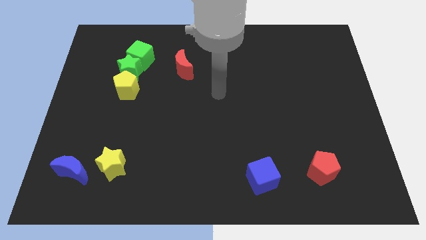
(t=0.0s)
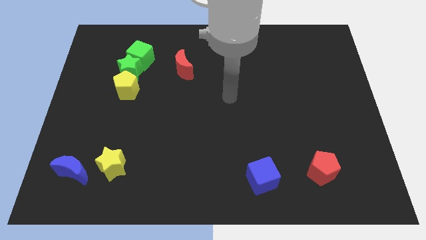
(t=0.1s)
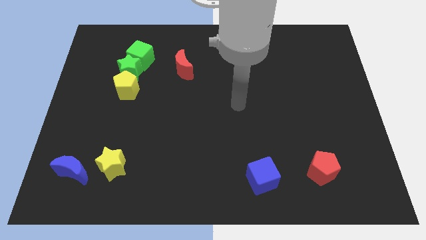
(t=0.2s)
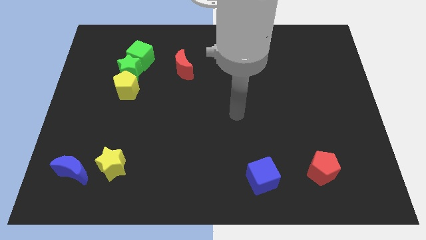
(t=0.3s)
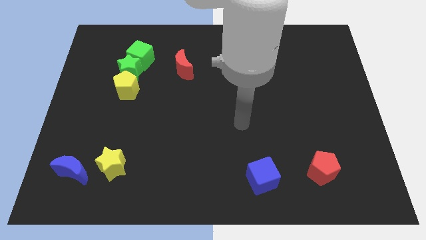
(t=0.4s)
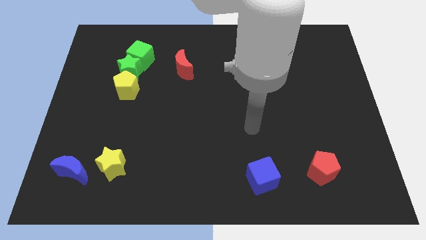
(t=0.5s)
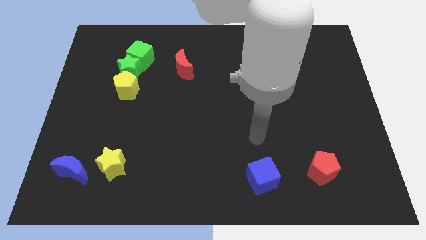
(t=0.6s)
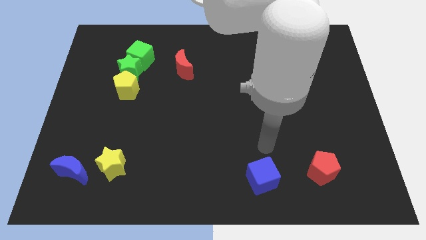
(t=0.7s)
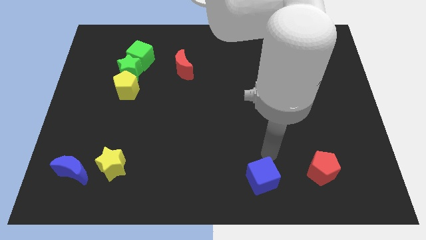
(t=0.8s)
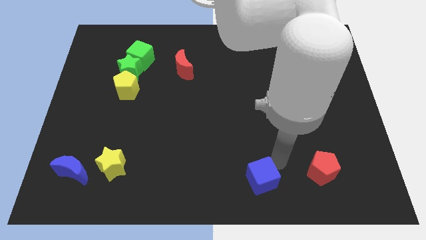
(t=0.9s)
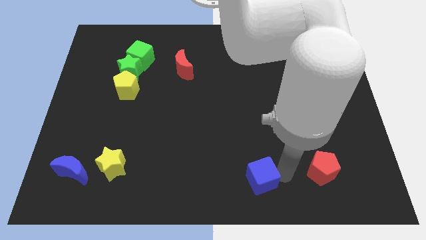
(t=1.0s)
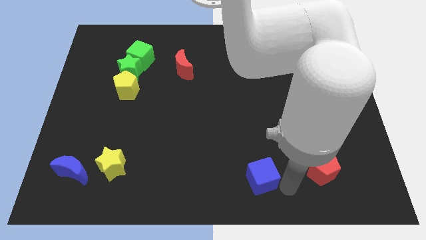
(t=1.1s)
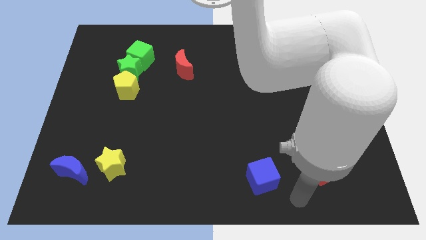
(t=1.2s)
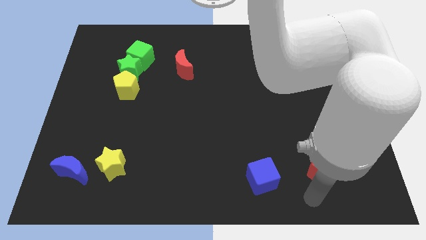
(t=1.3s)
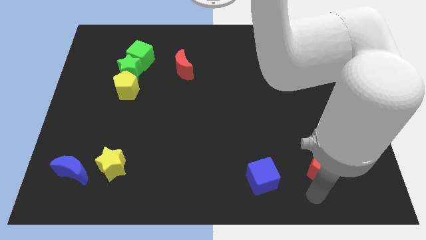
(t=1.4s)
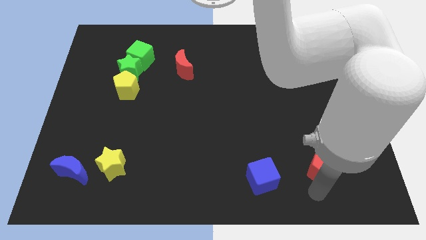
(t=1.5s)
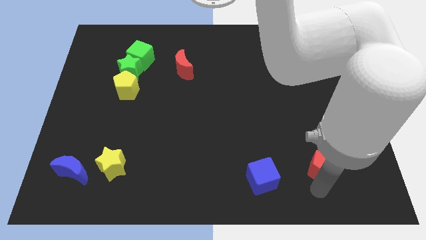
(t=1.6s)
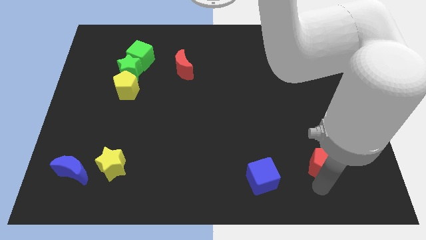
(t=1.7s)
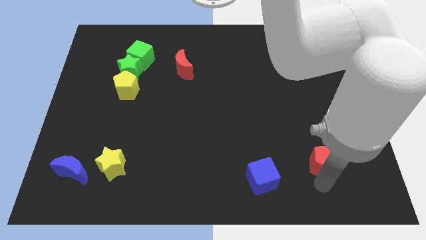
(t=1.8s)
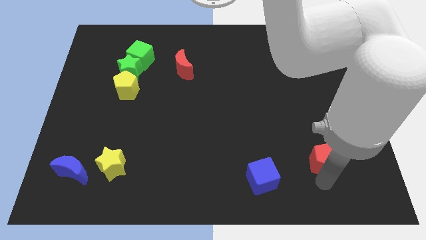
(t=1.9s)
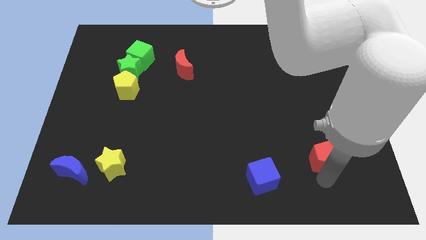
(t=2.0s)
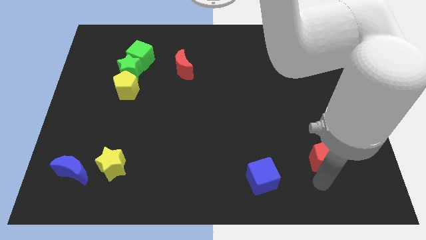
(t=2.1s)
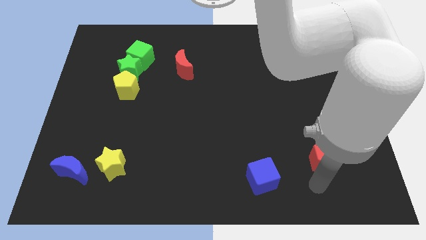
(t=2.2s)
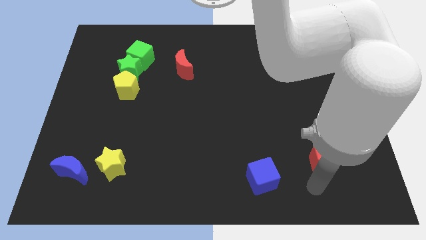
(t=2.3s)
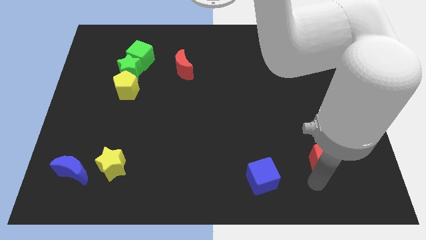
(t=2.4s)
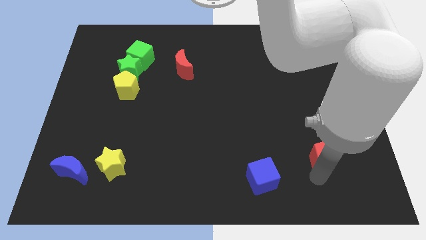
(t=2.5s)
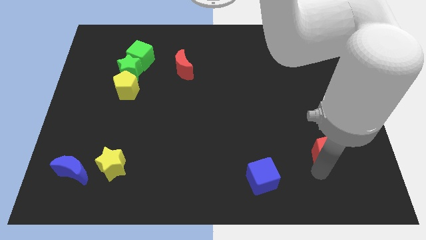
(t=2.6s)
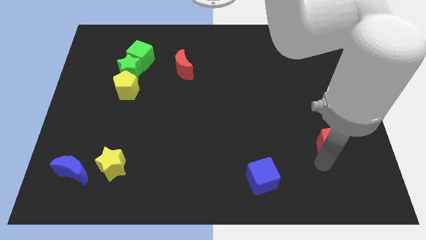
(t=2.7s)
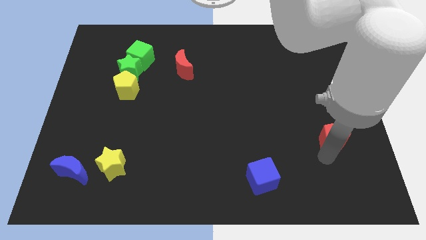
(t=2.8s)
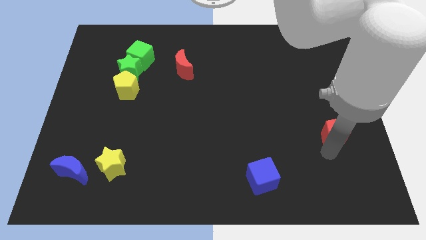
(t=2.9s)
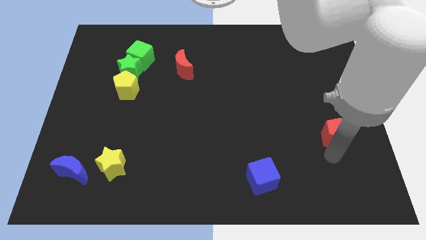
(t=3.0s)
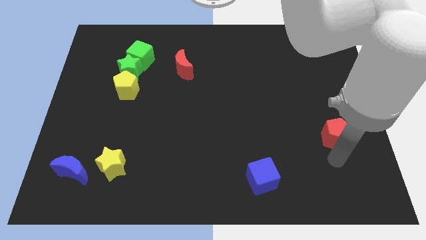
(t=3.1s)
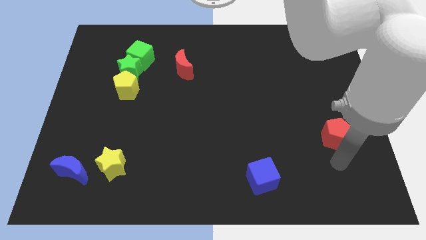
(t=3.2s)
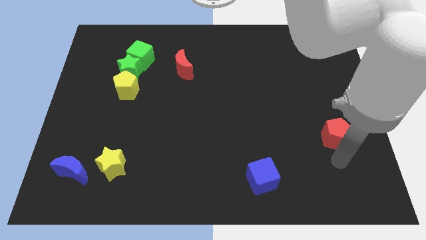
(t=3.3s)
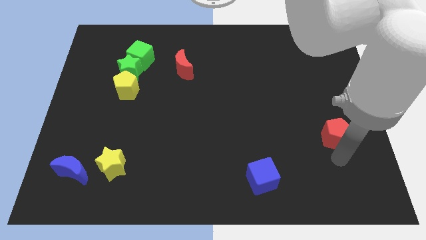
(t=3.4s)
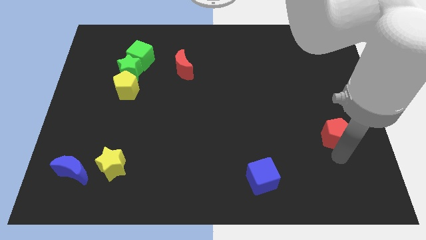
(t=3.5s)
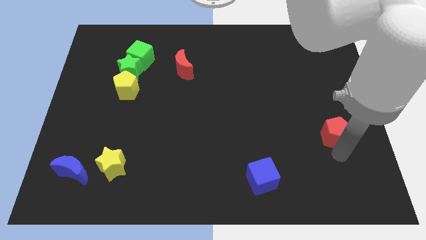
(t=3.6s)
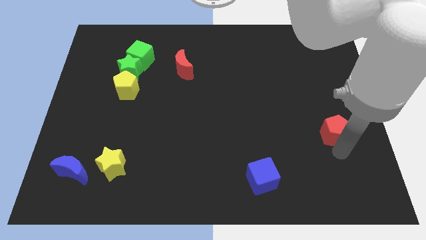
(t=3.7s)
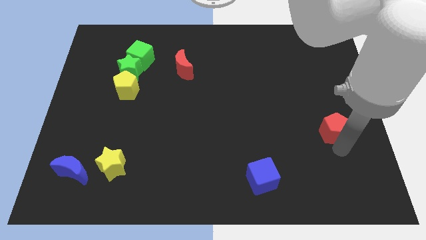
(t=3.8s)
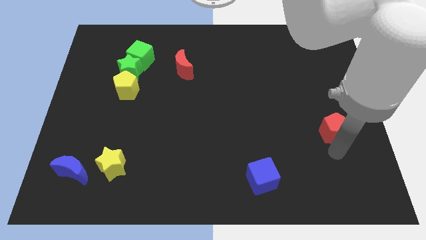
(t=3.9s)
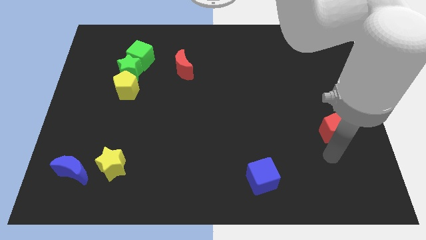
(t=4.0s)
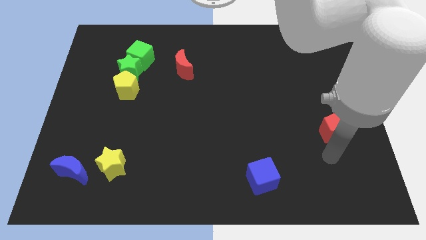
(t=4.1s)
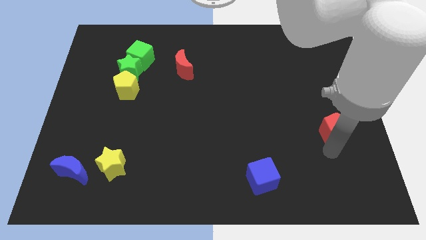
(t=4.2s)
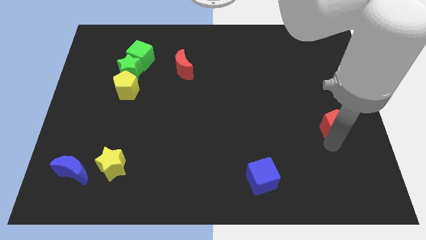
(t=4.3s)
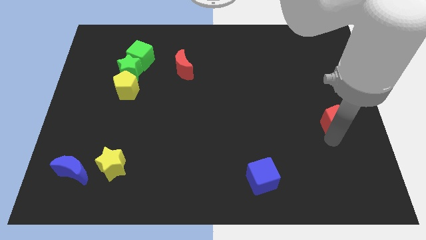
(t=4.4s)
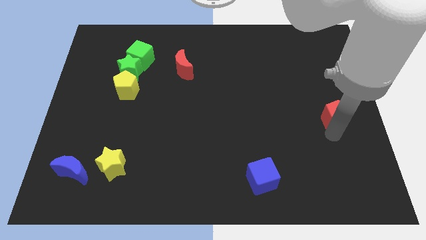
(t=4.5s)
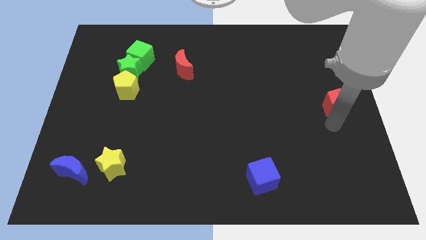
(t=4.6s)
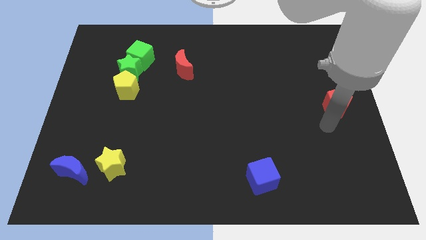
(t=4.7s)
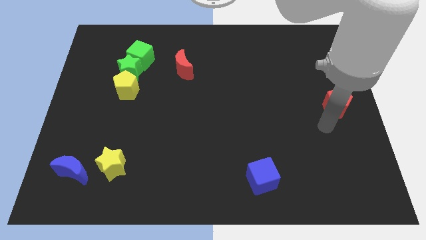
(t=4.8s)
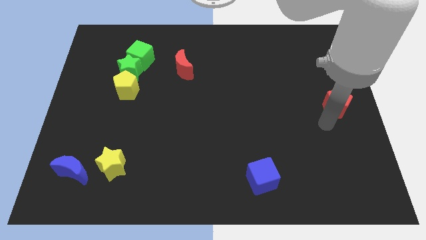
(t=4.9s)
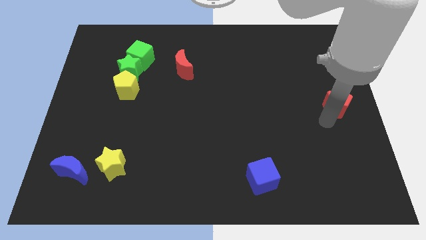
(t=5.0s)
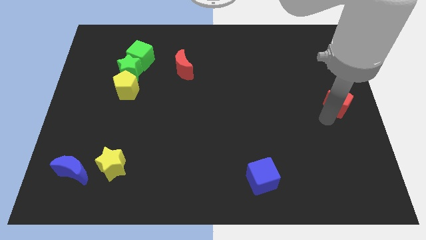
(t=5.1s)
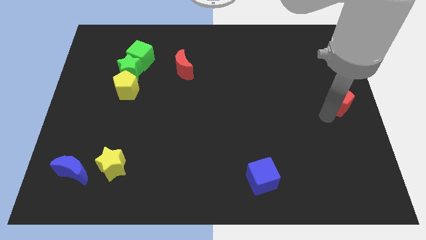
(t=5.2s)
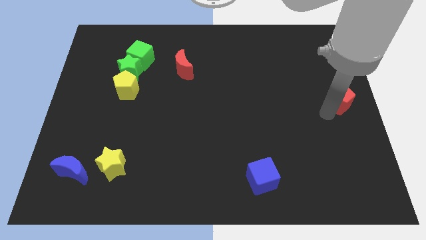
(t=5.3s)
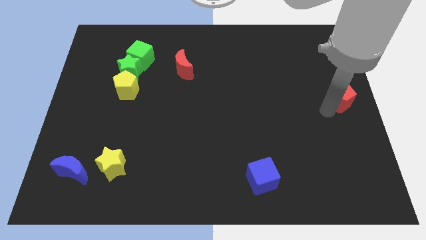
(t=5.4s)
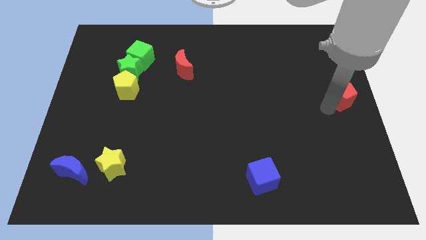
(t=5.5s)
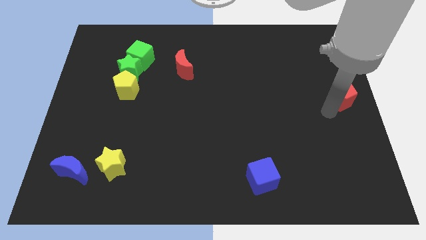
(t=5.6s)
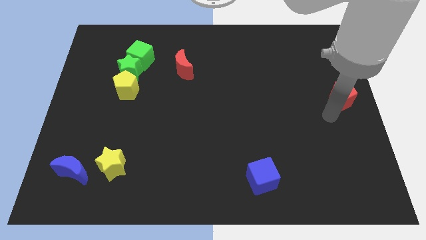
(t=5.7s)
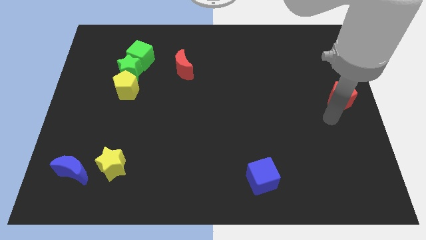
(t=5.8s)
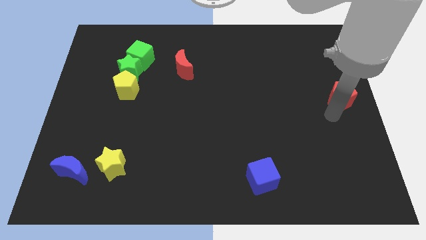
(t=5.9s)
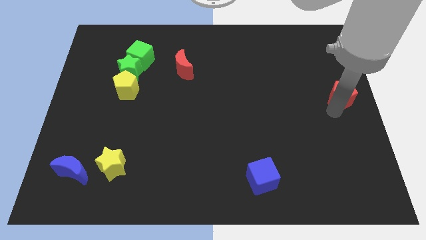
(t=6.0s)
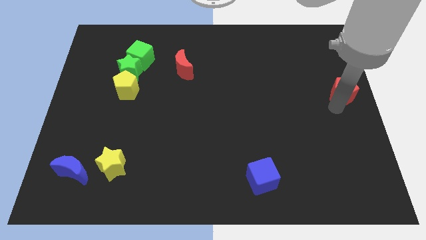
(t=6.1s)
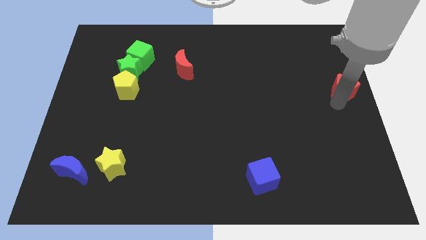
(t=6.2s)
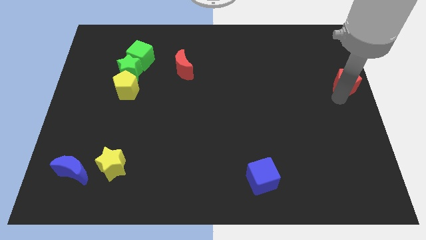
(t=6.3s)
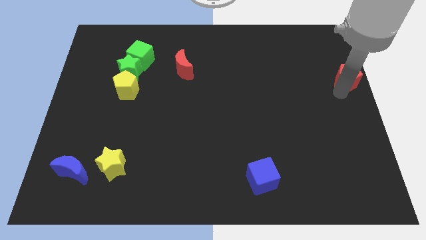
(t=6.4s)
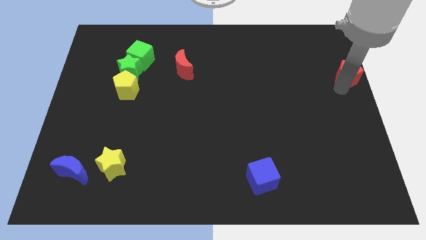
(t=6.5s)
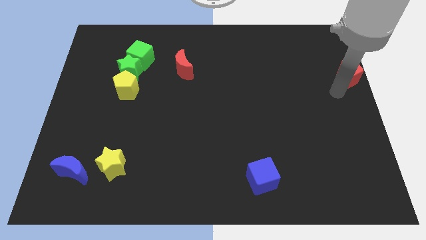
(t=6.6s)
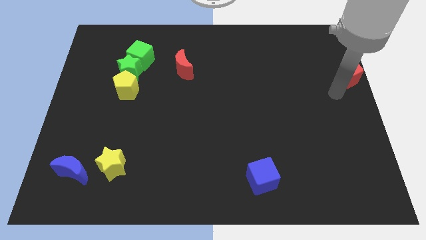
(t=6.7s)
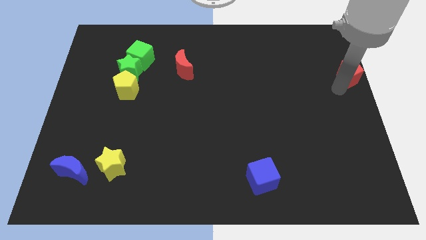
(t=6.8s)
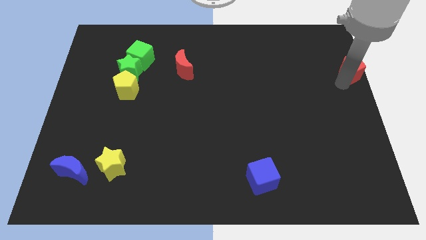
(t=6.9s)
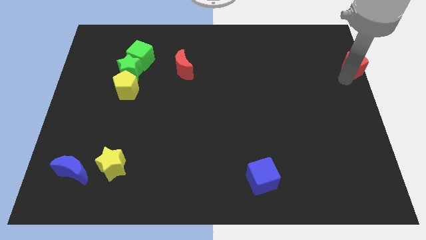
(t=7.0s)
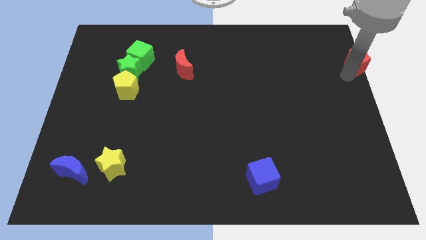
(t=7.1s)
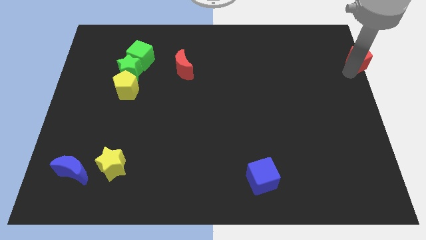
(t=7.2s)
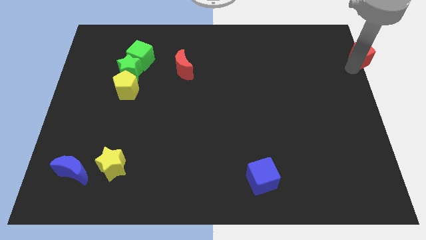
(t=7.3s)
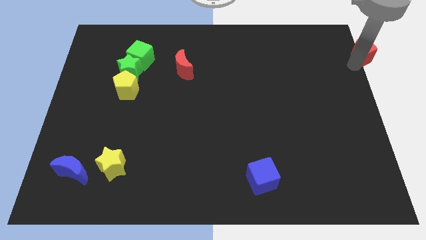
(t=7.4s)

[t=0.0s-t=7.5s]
push the red pentagon to the top right
